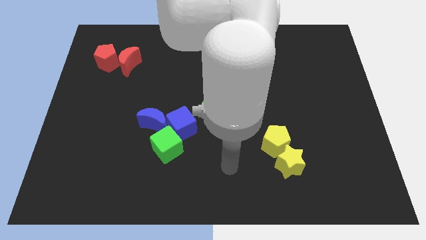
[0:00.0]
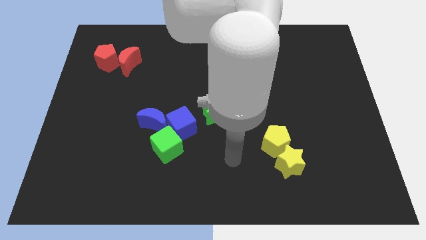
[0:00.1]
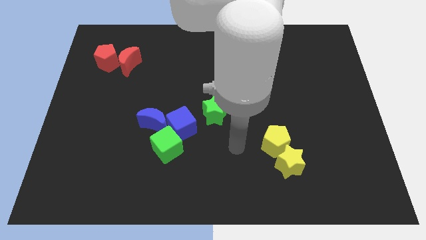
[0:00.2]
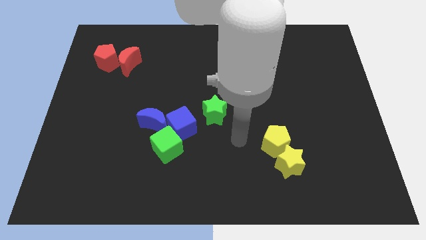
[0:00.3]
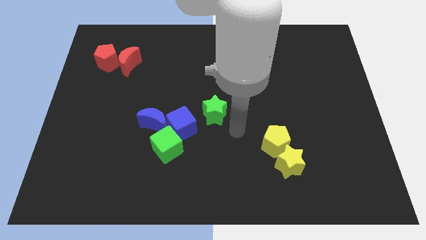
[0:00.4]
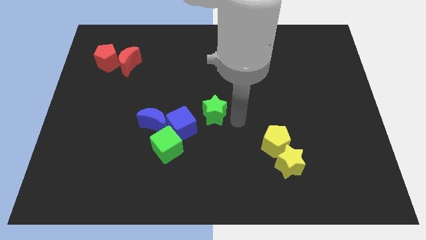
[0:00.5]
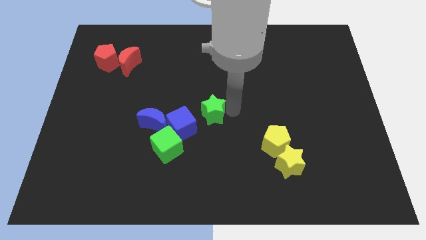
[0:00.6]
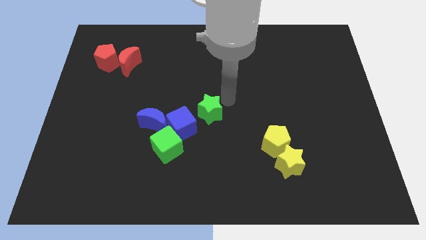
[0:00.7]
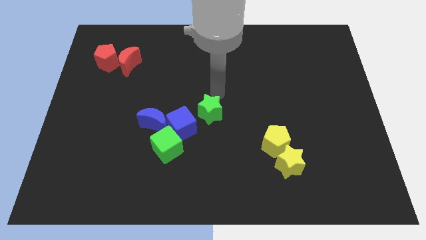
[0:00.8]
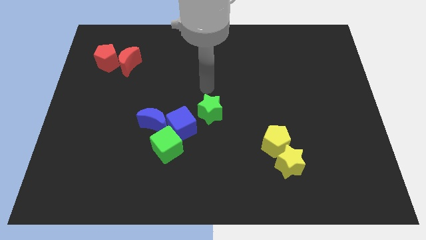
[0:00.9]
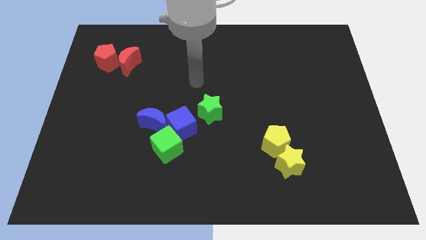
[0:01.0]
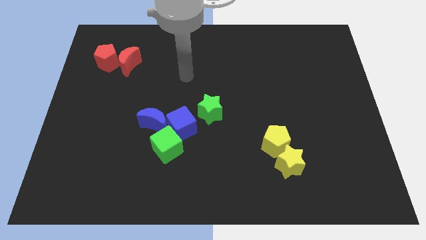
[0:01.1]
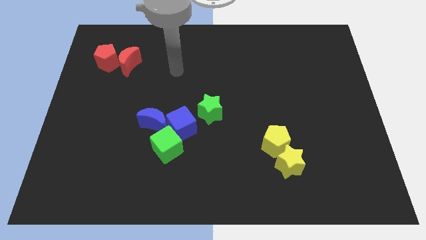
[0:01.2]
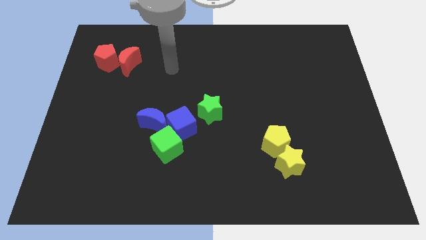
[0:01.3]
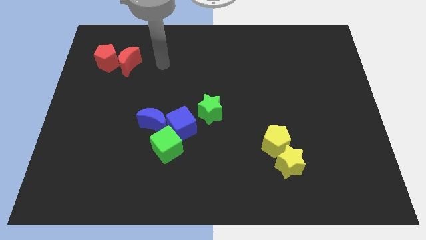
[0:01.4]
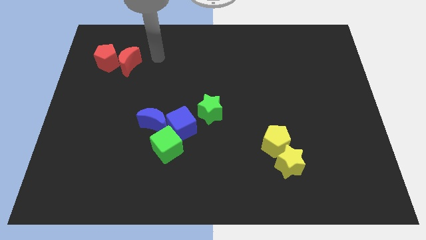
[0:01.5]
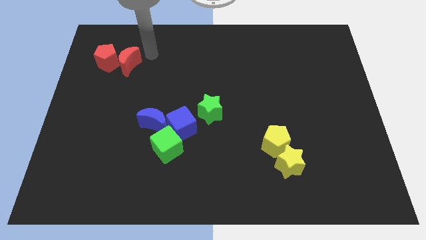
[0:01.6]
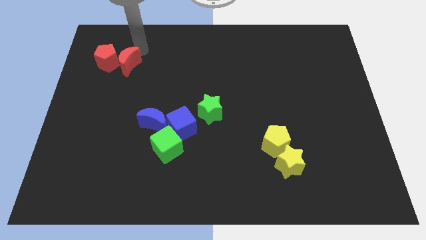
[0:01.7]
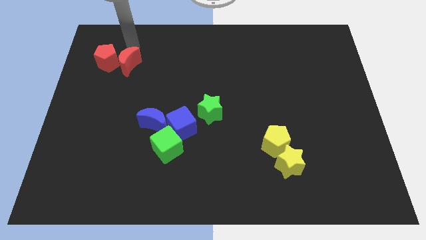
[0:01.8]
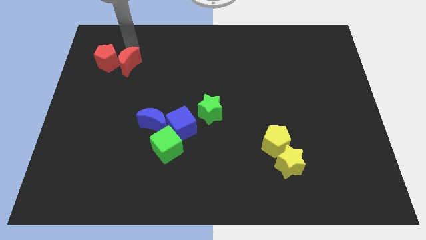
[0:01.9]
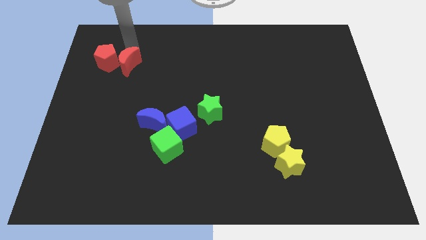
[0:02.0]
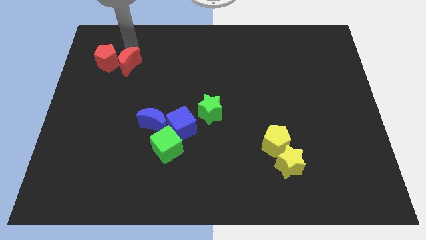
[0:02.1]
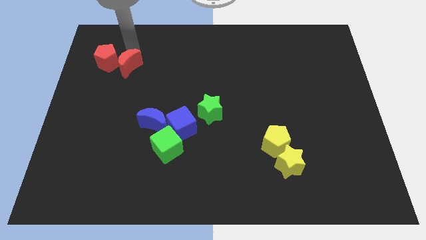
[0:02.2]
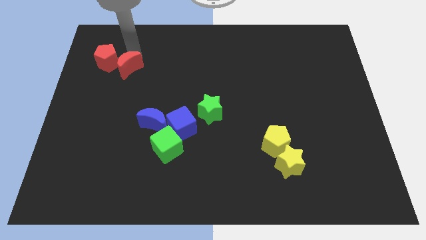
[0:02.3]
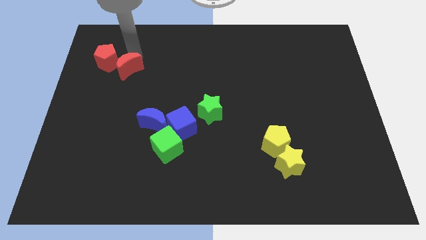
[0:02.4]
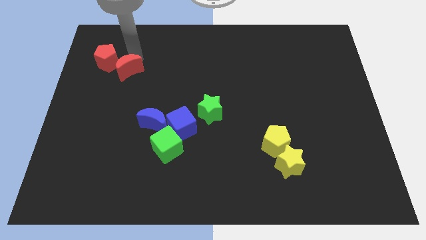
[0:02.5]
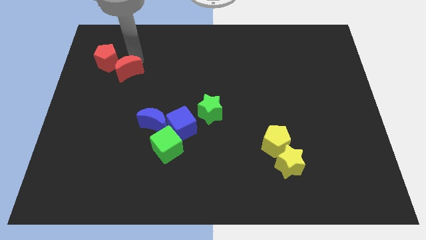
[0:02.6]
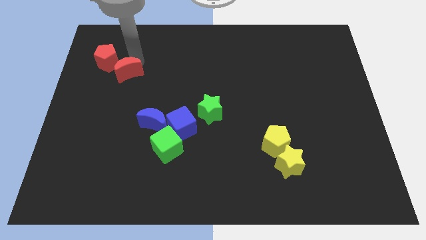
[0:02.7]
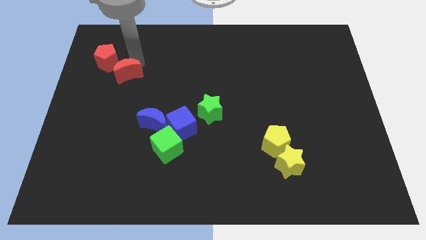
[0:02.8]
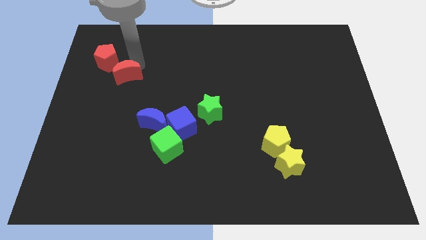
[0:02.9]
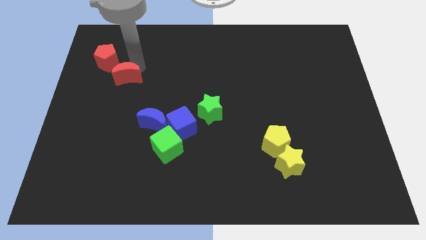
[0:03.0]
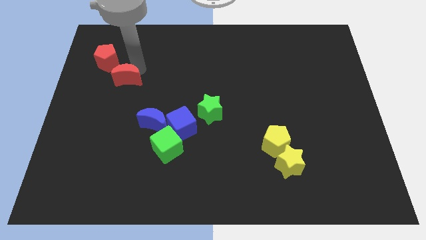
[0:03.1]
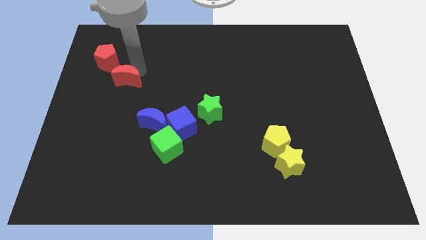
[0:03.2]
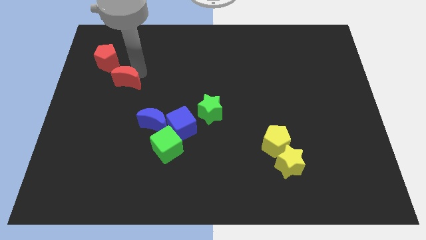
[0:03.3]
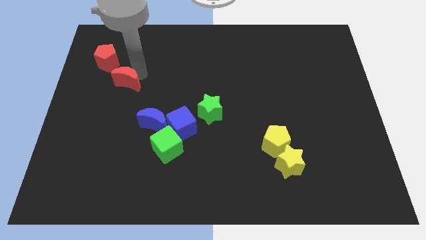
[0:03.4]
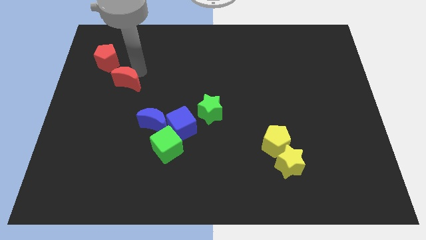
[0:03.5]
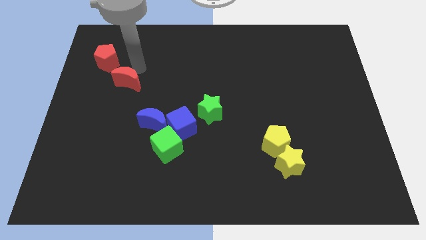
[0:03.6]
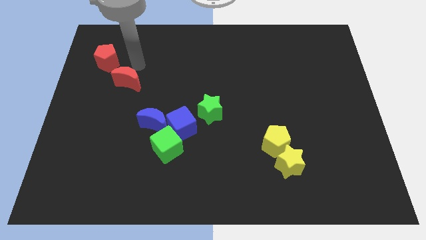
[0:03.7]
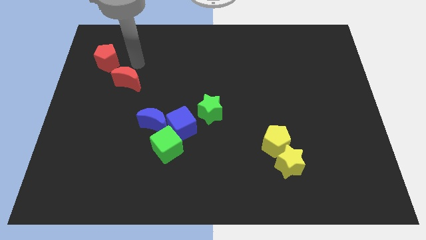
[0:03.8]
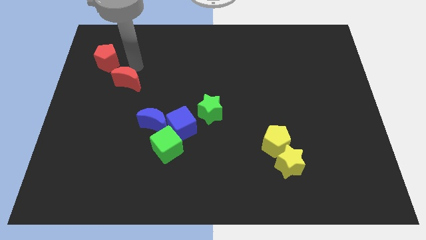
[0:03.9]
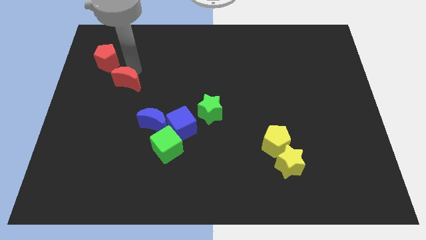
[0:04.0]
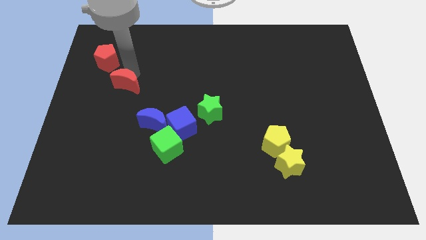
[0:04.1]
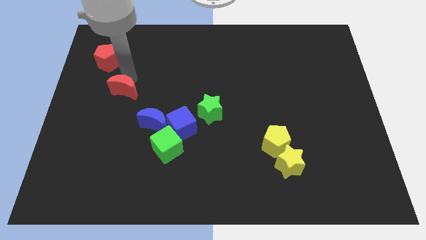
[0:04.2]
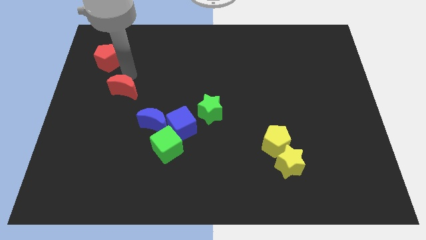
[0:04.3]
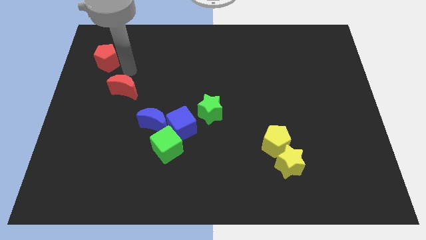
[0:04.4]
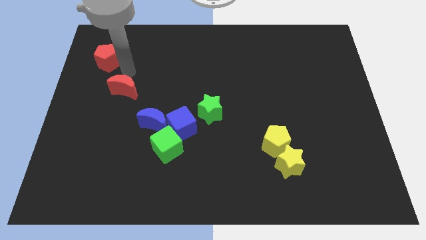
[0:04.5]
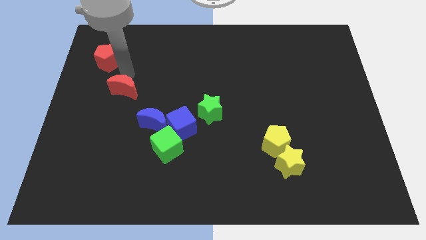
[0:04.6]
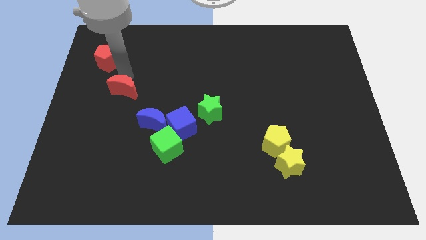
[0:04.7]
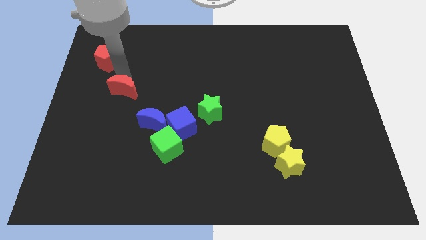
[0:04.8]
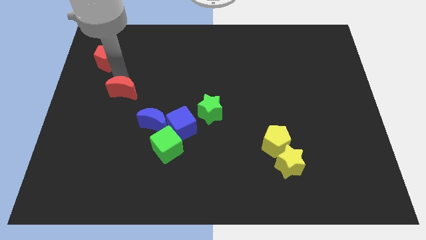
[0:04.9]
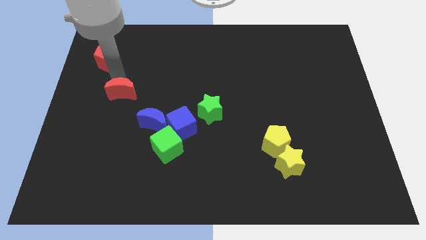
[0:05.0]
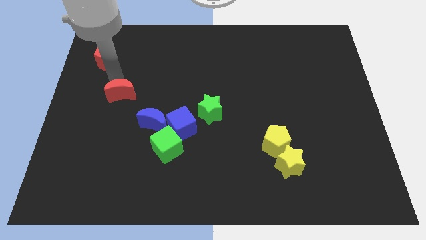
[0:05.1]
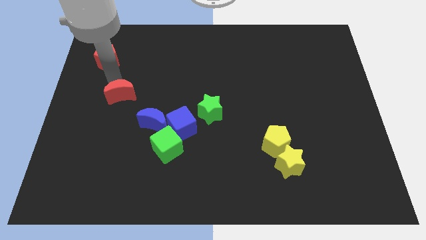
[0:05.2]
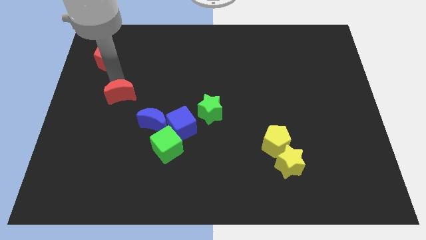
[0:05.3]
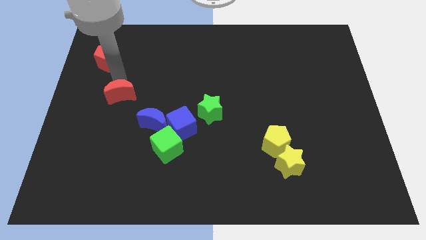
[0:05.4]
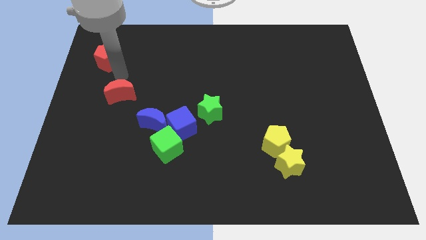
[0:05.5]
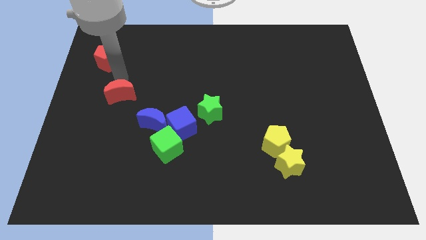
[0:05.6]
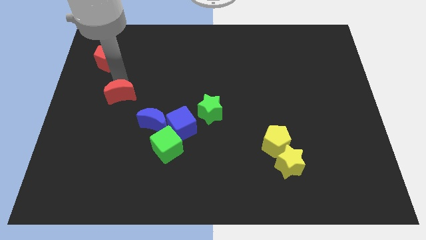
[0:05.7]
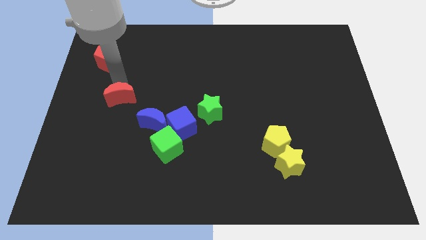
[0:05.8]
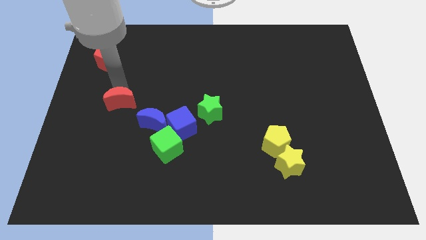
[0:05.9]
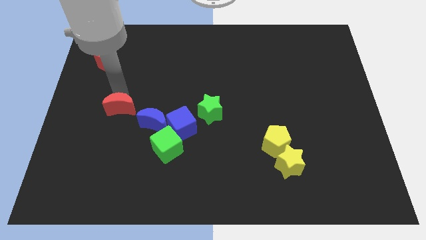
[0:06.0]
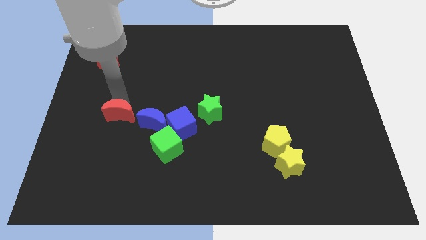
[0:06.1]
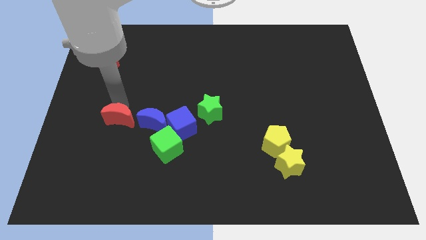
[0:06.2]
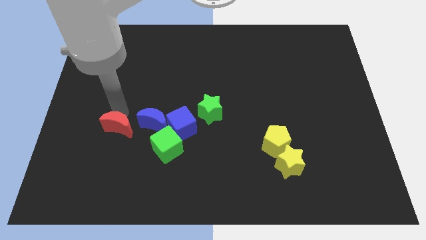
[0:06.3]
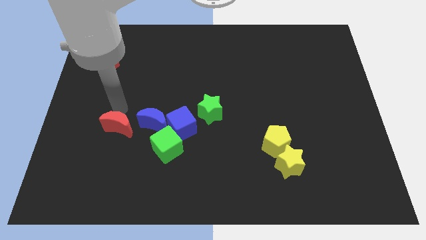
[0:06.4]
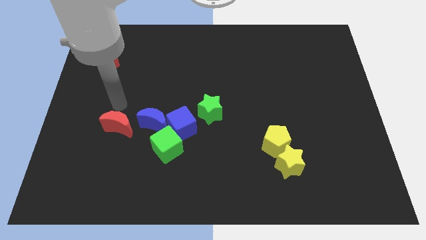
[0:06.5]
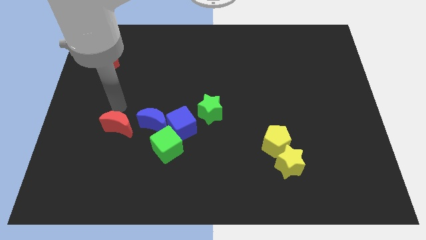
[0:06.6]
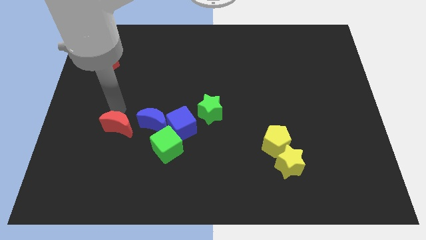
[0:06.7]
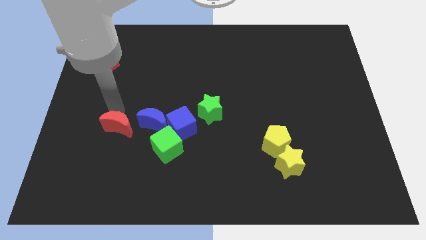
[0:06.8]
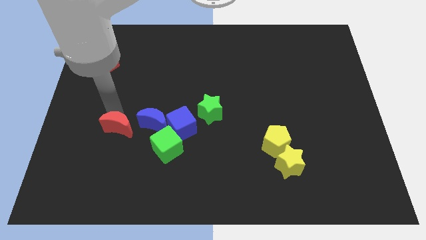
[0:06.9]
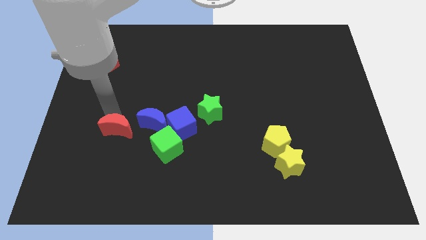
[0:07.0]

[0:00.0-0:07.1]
move the red moon to the left side of the green cube

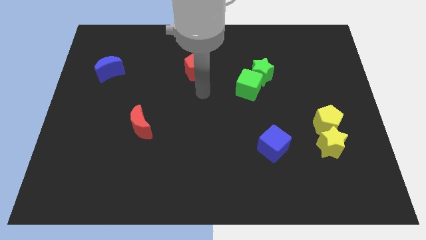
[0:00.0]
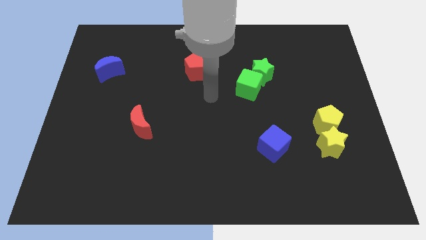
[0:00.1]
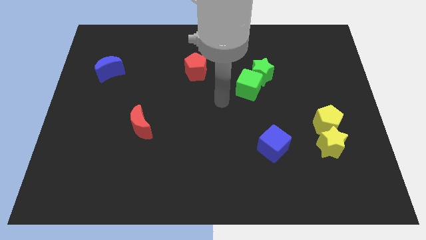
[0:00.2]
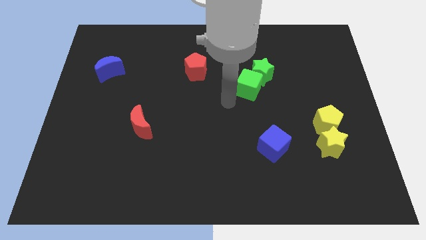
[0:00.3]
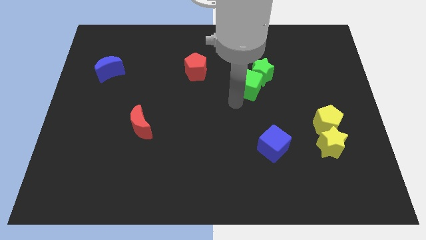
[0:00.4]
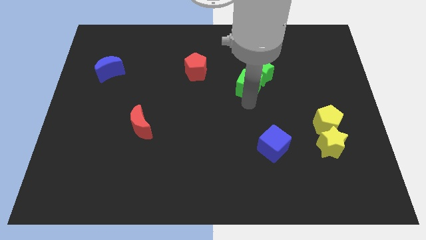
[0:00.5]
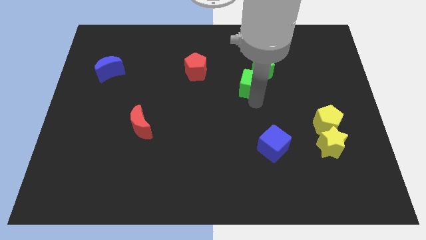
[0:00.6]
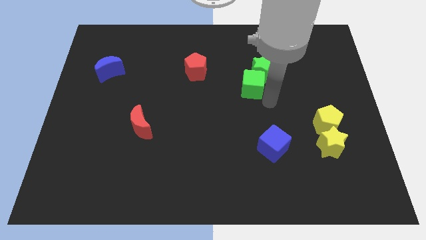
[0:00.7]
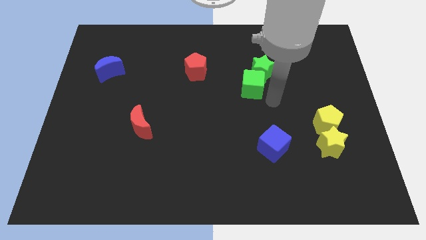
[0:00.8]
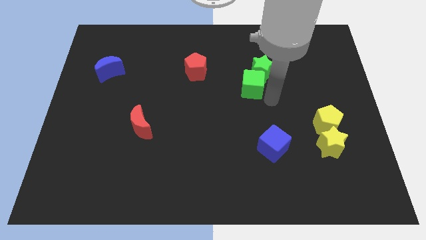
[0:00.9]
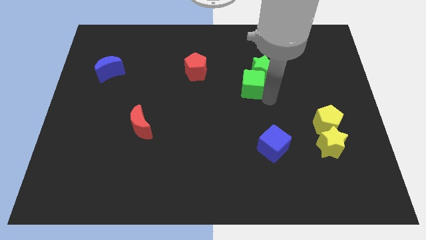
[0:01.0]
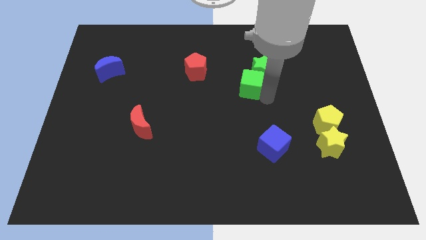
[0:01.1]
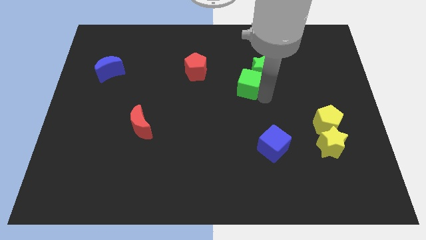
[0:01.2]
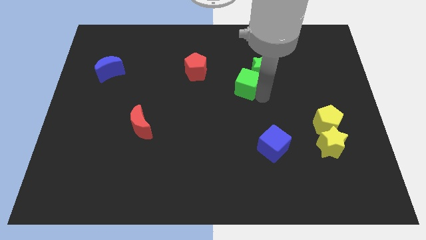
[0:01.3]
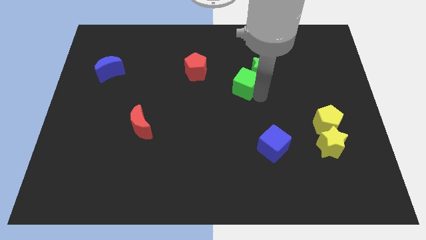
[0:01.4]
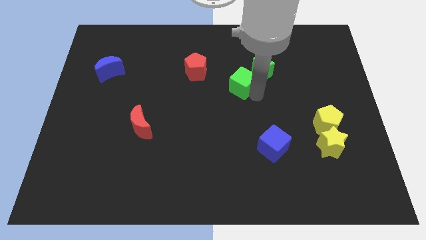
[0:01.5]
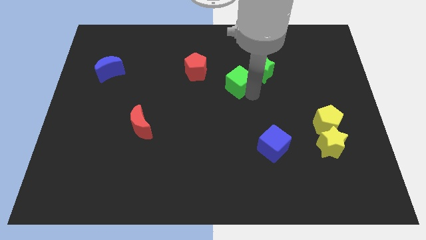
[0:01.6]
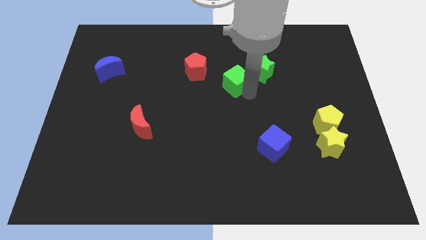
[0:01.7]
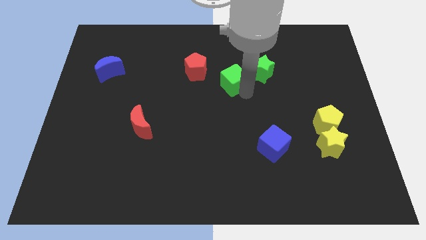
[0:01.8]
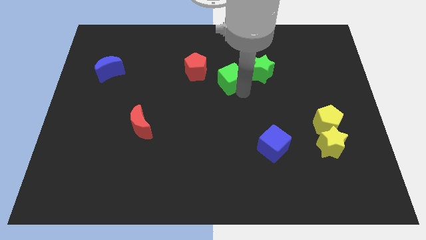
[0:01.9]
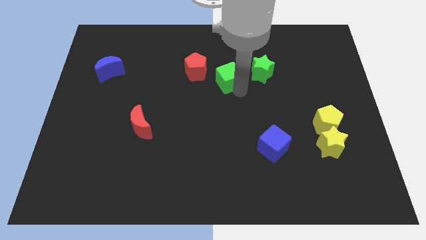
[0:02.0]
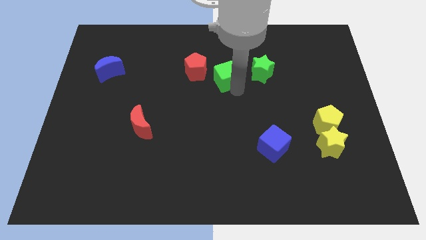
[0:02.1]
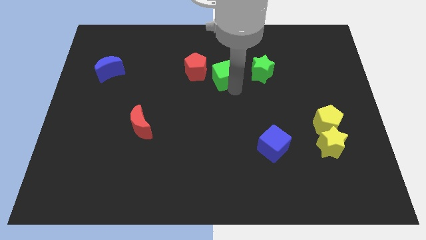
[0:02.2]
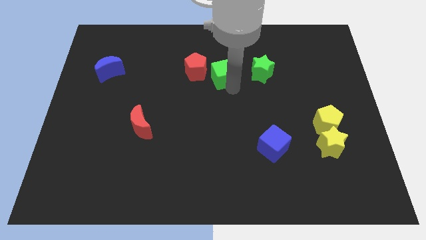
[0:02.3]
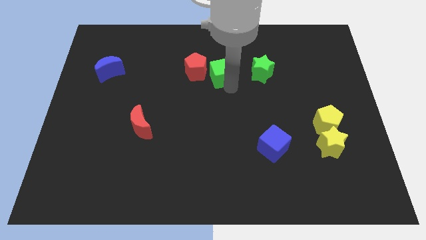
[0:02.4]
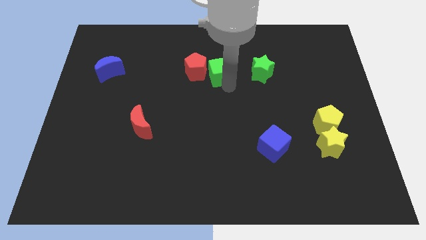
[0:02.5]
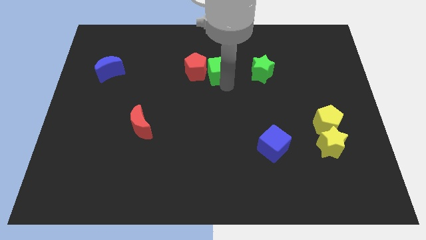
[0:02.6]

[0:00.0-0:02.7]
push the green cube to the top right of the red pentagon
